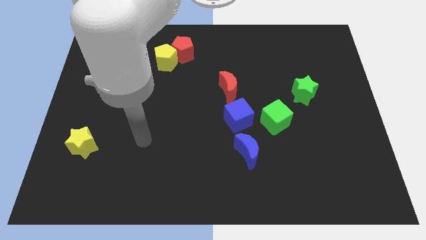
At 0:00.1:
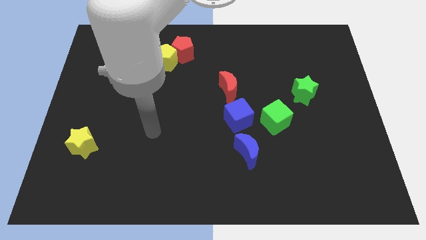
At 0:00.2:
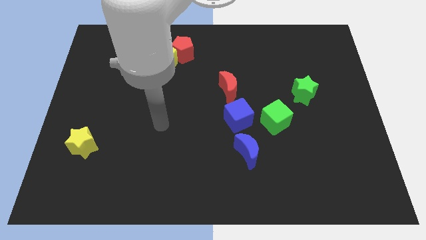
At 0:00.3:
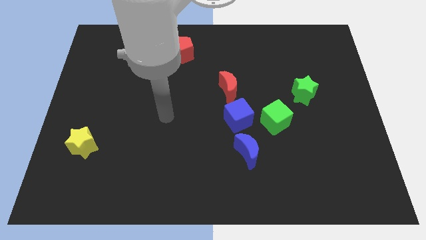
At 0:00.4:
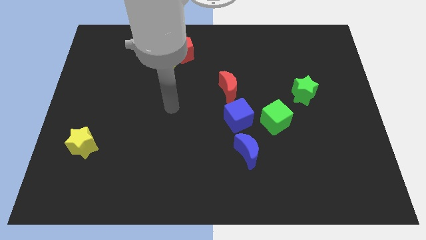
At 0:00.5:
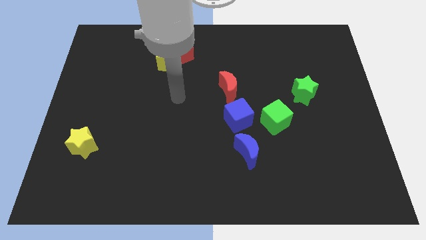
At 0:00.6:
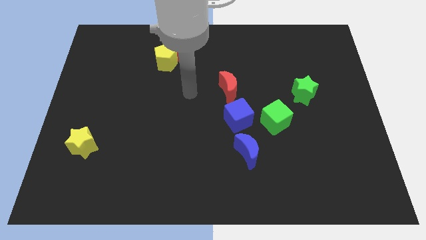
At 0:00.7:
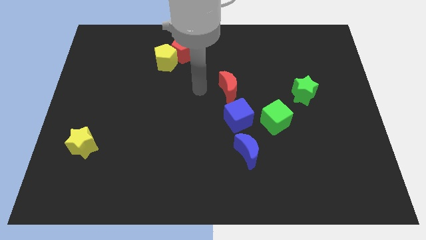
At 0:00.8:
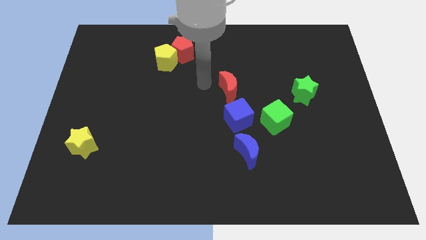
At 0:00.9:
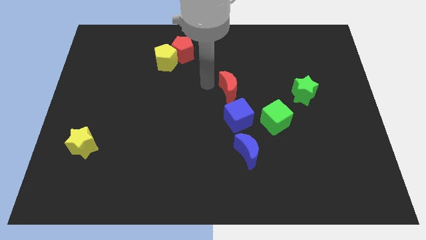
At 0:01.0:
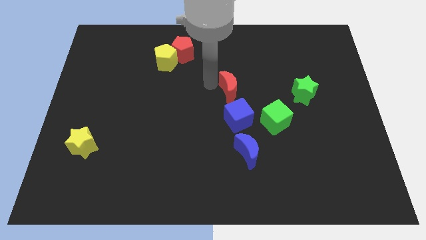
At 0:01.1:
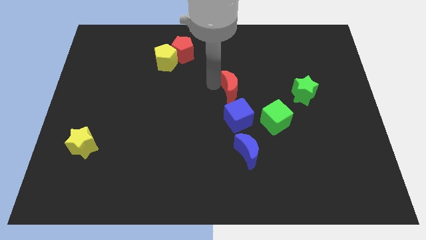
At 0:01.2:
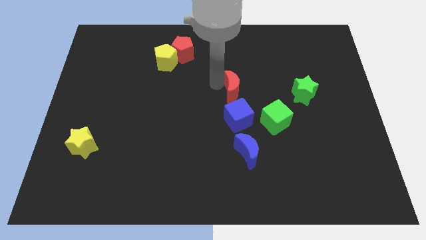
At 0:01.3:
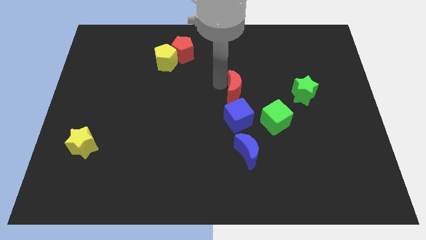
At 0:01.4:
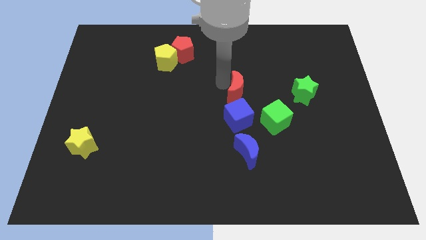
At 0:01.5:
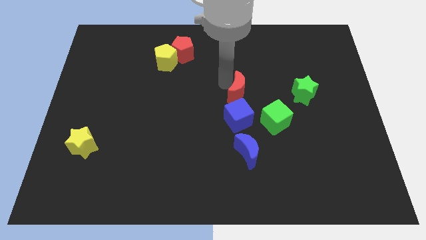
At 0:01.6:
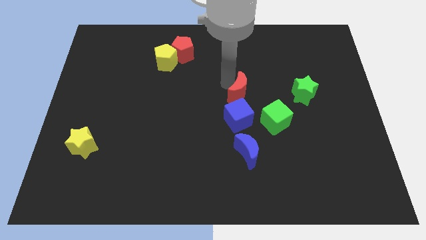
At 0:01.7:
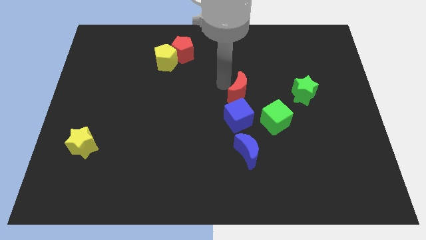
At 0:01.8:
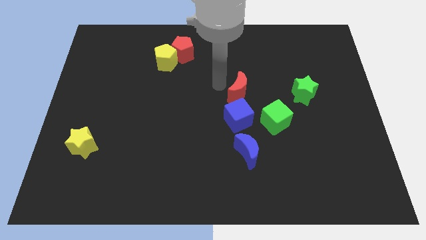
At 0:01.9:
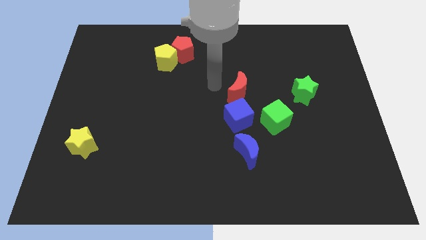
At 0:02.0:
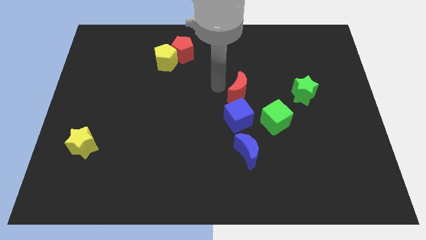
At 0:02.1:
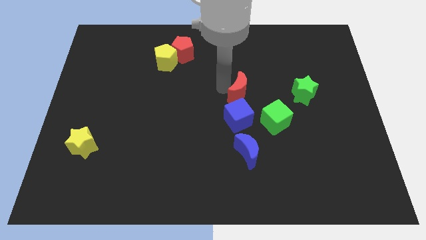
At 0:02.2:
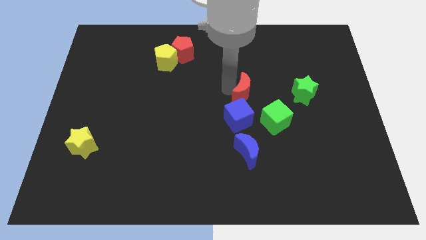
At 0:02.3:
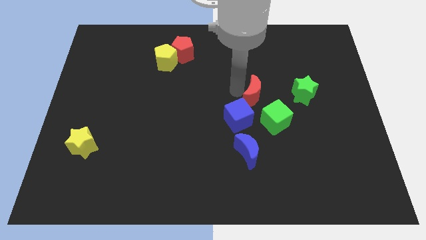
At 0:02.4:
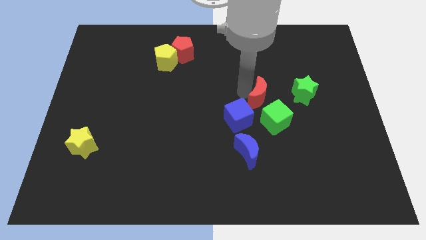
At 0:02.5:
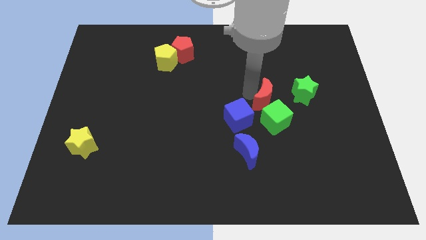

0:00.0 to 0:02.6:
slide the red moon somewhat downwards and to the right diagonally

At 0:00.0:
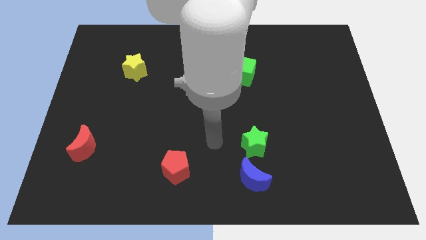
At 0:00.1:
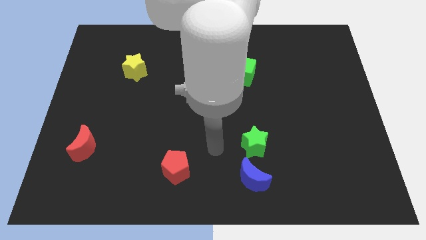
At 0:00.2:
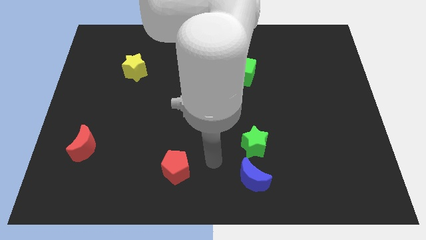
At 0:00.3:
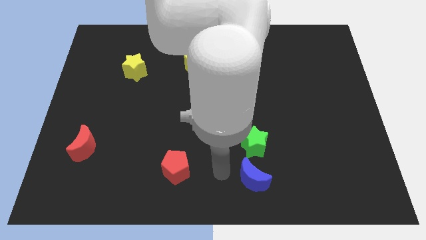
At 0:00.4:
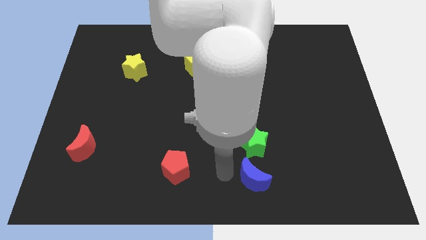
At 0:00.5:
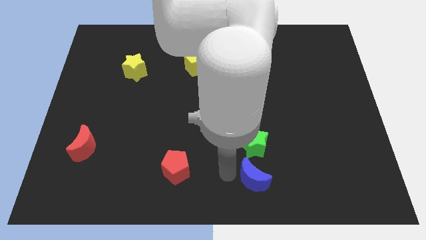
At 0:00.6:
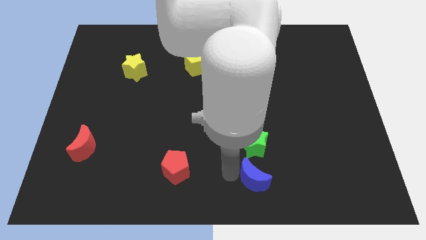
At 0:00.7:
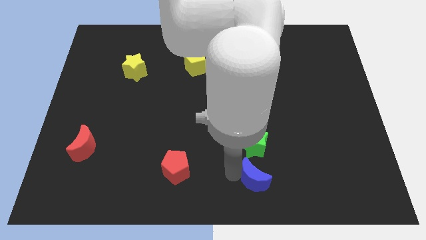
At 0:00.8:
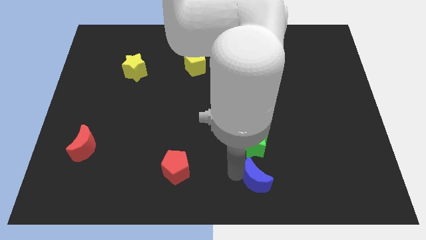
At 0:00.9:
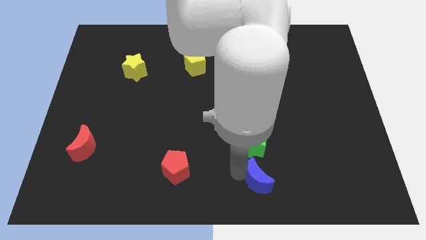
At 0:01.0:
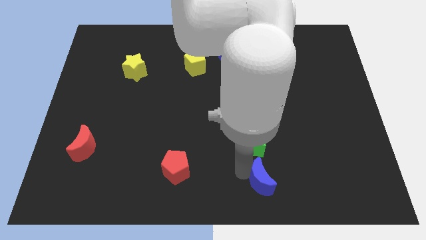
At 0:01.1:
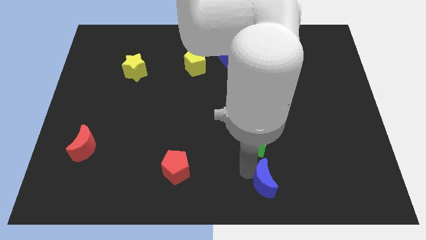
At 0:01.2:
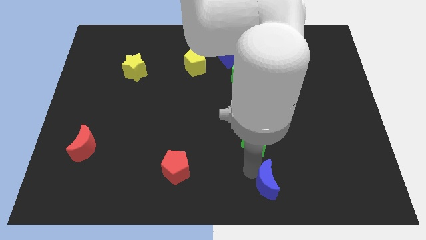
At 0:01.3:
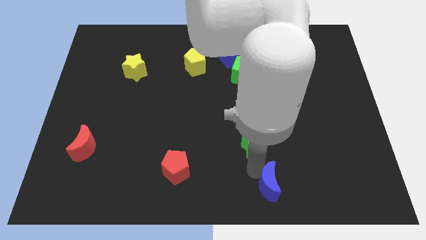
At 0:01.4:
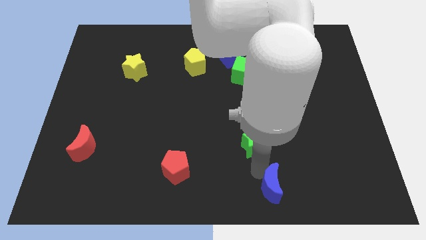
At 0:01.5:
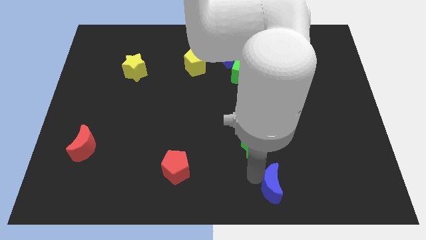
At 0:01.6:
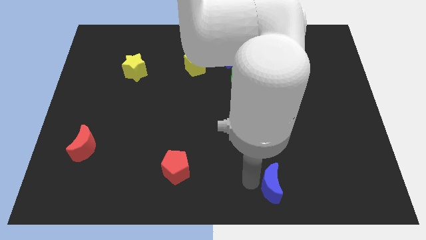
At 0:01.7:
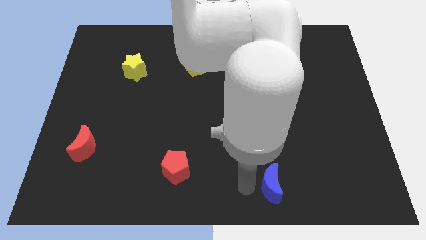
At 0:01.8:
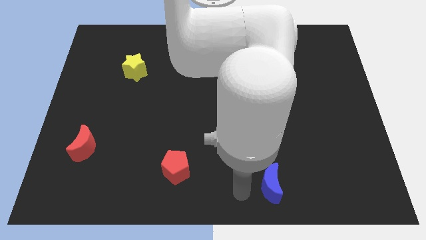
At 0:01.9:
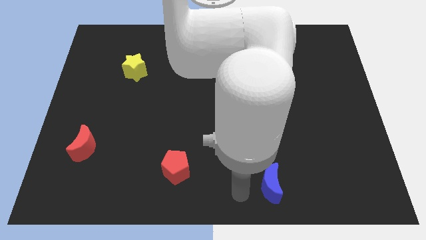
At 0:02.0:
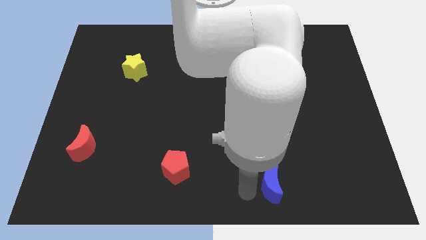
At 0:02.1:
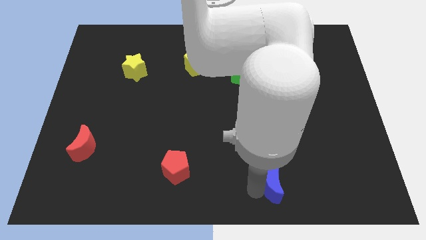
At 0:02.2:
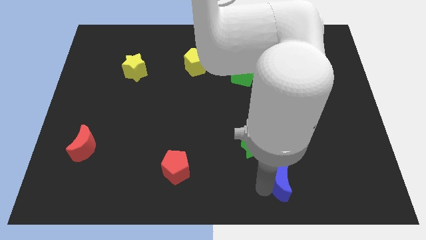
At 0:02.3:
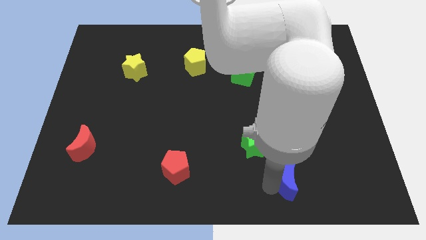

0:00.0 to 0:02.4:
push the blue moon a little bit right

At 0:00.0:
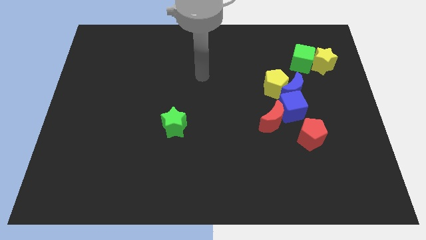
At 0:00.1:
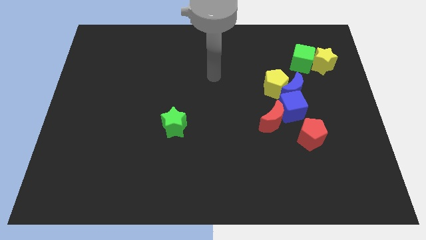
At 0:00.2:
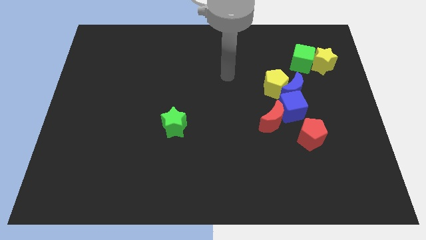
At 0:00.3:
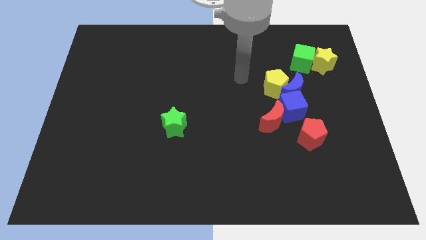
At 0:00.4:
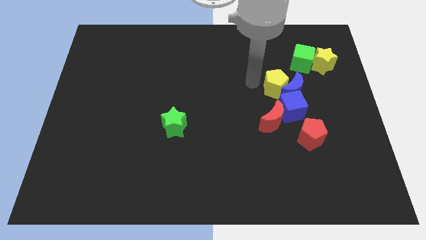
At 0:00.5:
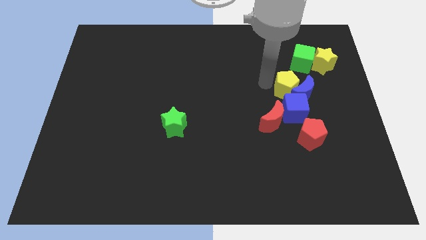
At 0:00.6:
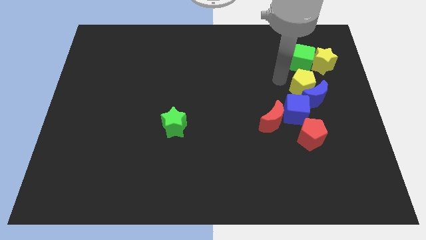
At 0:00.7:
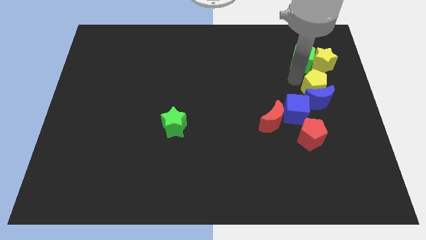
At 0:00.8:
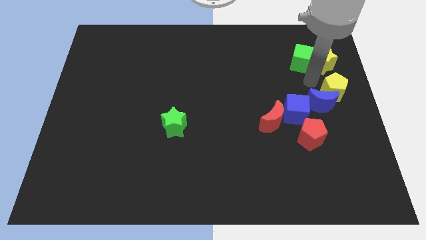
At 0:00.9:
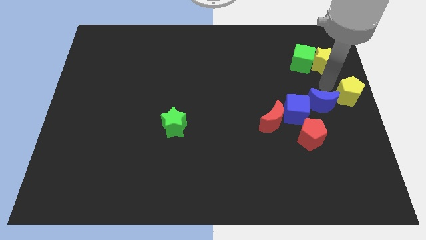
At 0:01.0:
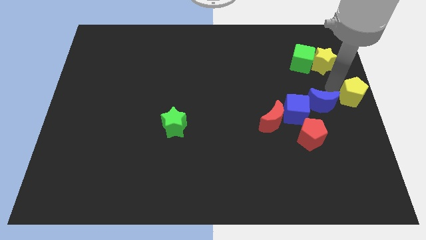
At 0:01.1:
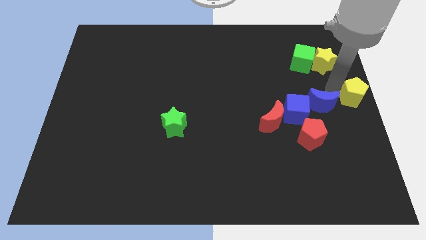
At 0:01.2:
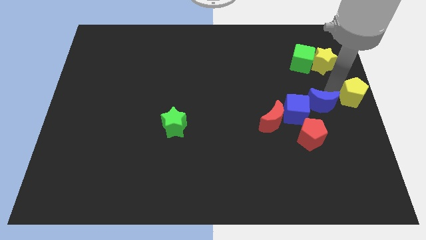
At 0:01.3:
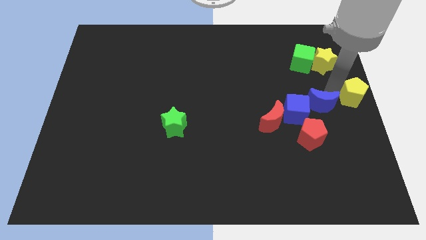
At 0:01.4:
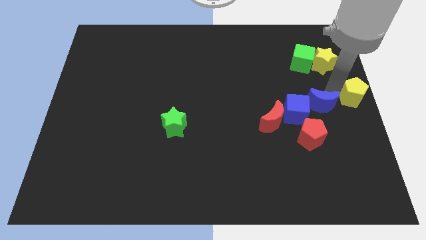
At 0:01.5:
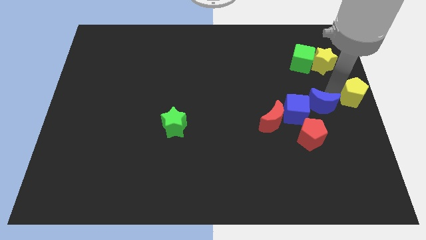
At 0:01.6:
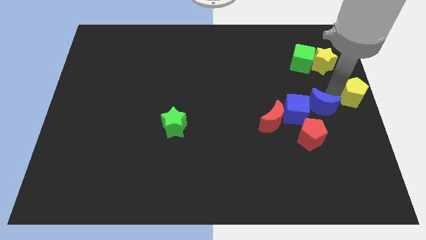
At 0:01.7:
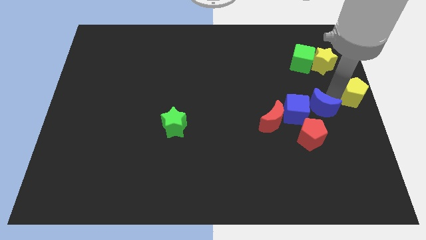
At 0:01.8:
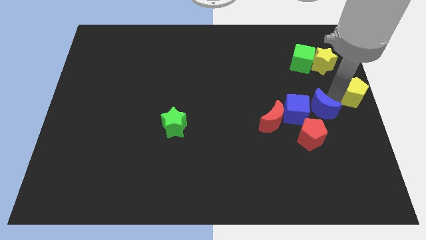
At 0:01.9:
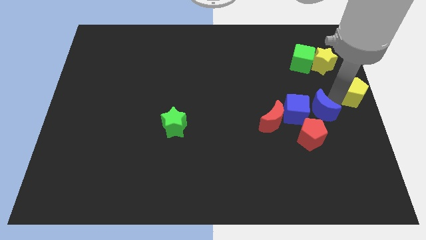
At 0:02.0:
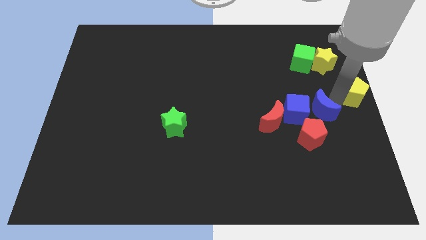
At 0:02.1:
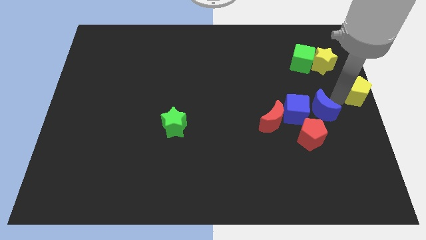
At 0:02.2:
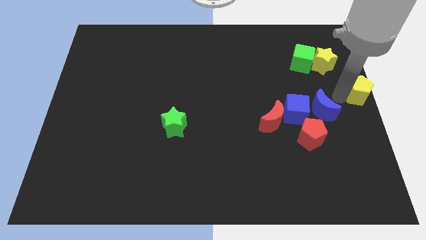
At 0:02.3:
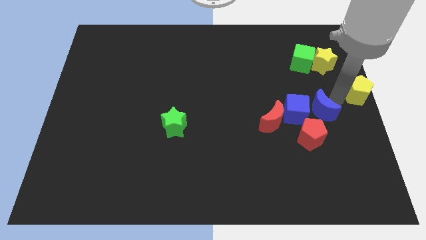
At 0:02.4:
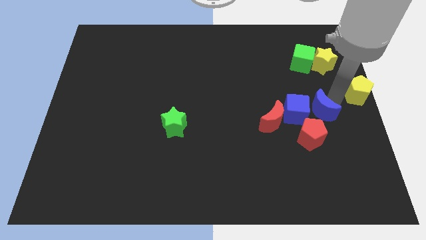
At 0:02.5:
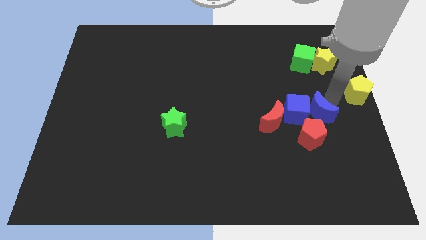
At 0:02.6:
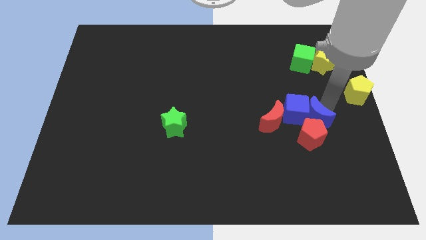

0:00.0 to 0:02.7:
move the blue moon slightly down

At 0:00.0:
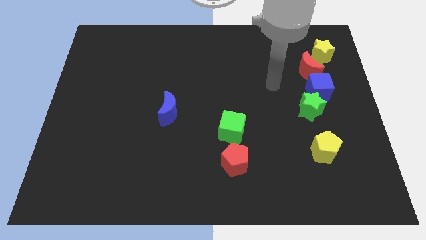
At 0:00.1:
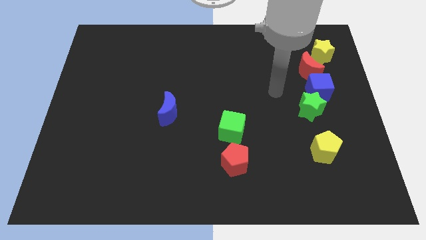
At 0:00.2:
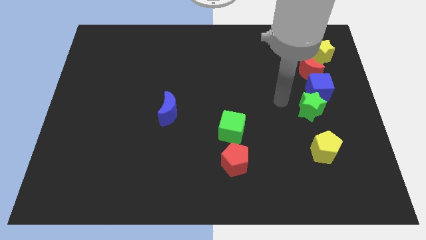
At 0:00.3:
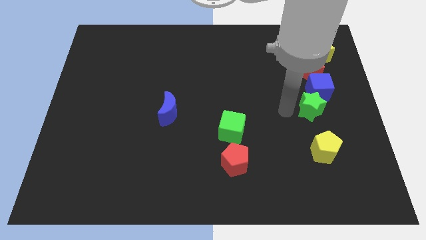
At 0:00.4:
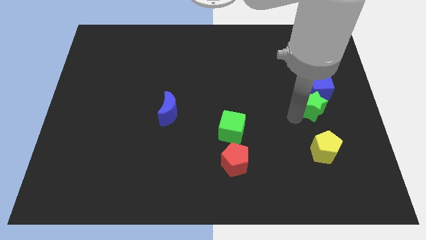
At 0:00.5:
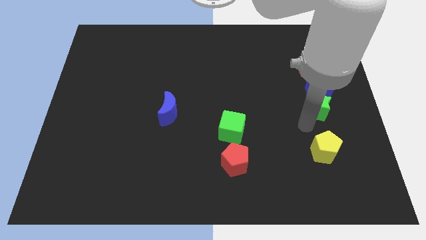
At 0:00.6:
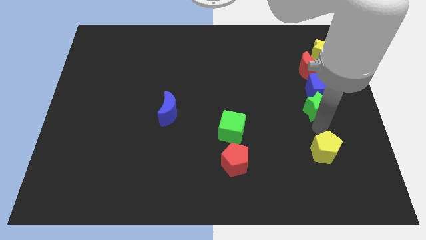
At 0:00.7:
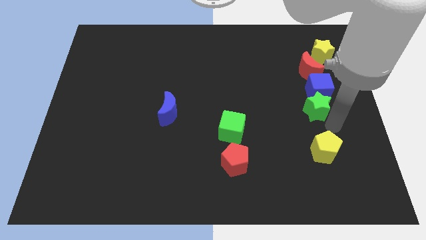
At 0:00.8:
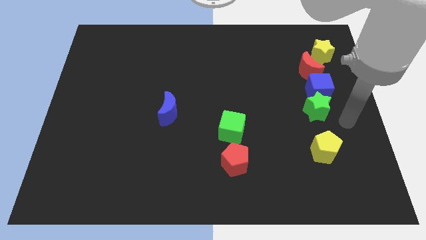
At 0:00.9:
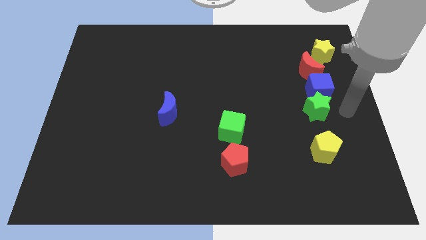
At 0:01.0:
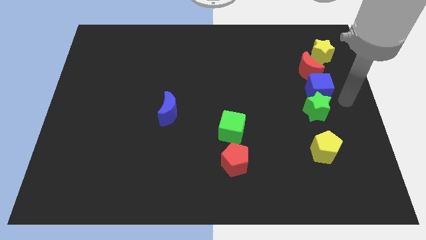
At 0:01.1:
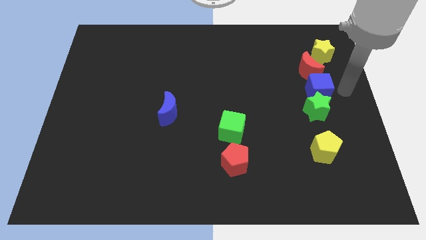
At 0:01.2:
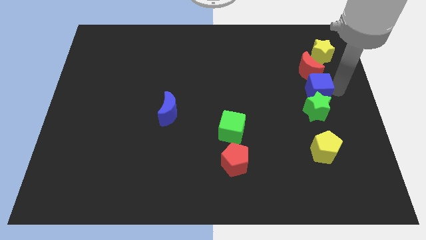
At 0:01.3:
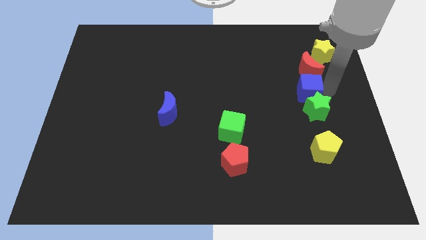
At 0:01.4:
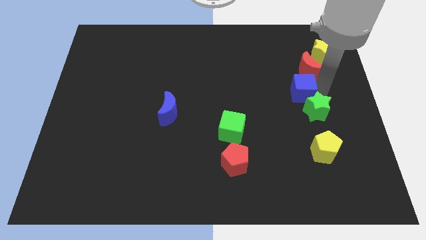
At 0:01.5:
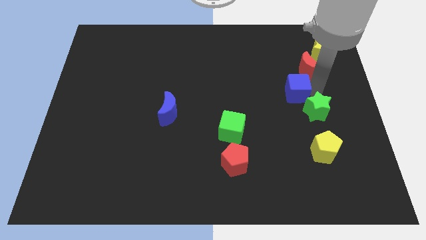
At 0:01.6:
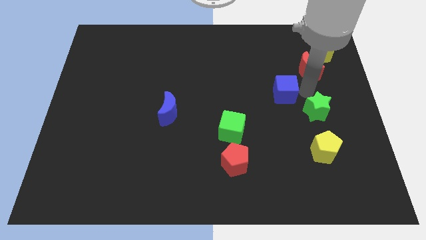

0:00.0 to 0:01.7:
slightly slide the blue cube to the left
